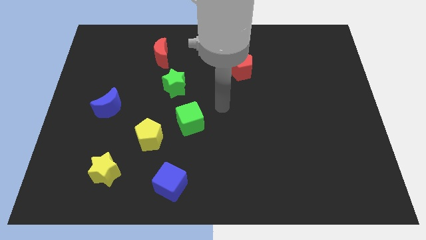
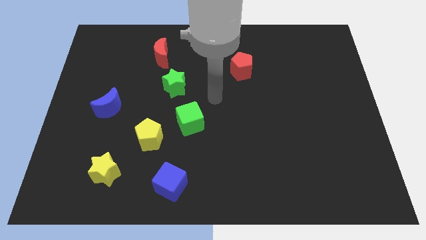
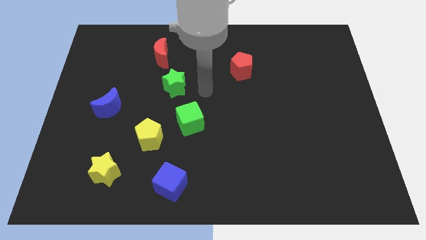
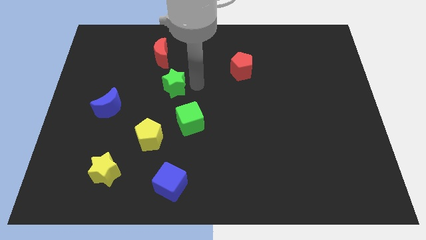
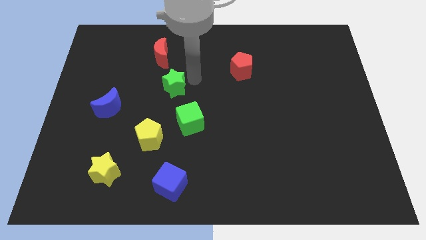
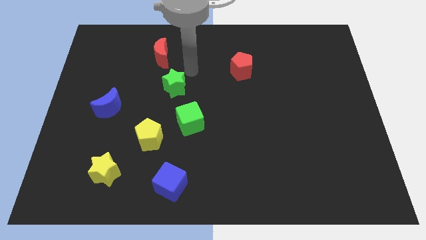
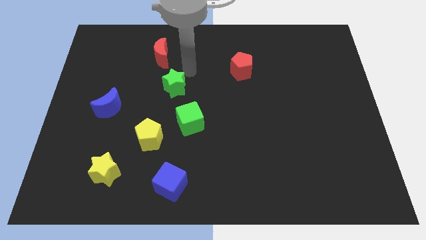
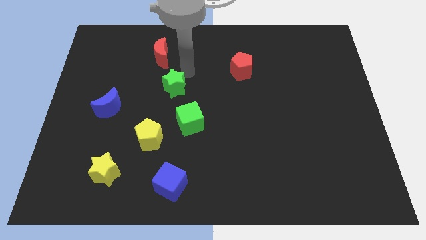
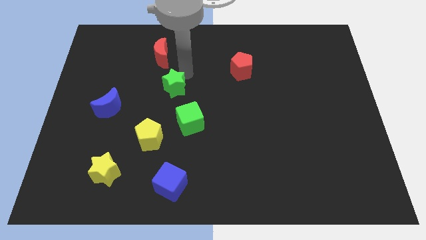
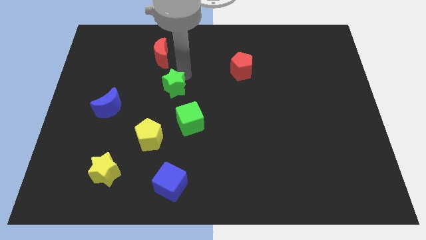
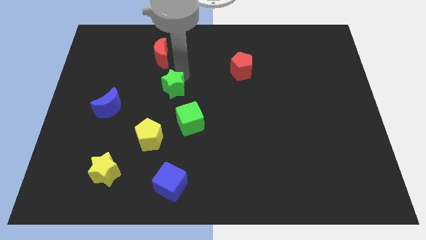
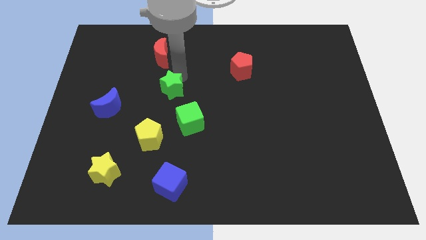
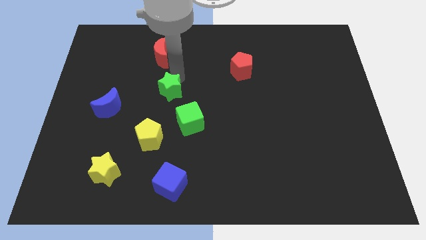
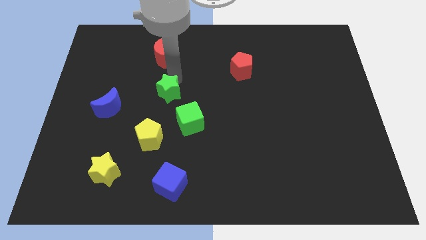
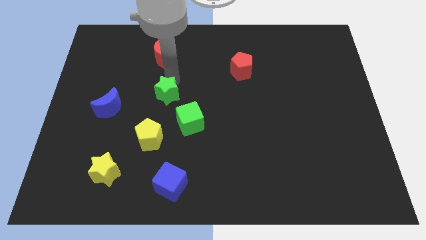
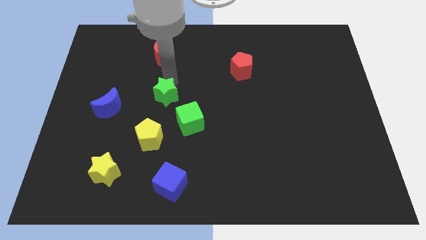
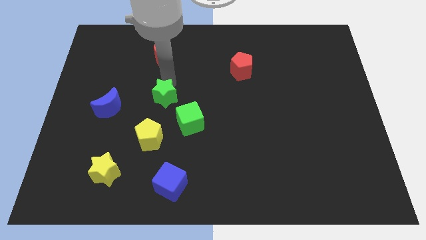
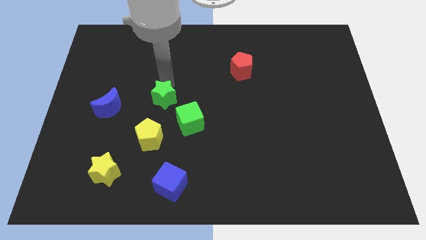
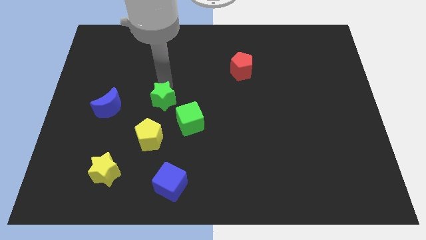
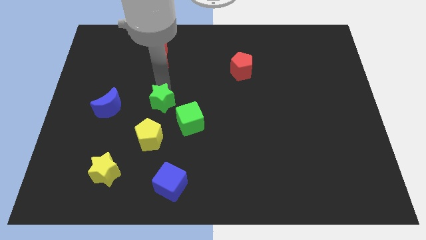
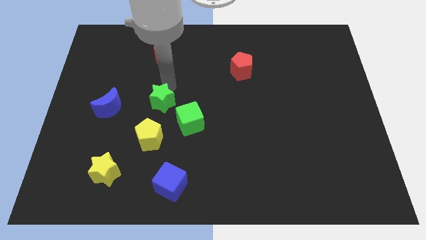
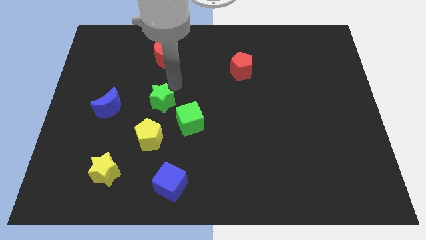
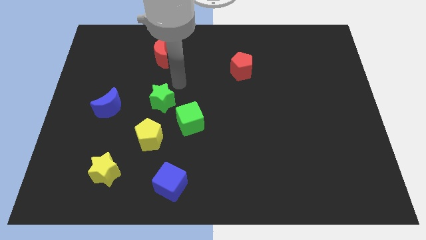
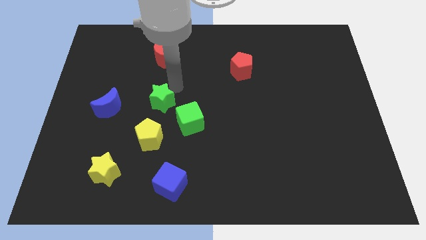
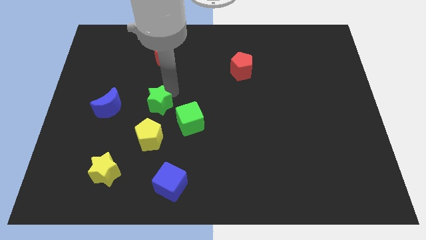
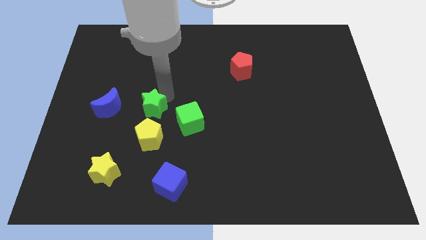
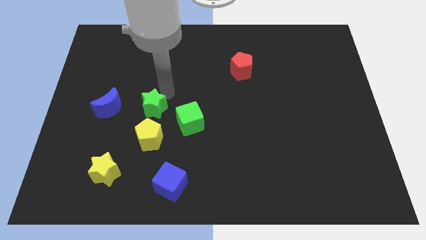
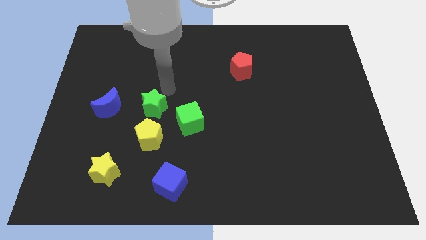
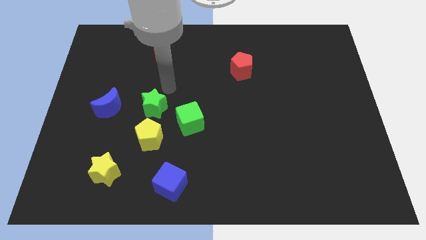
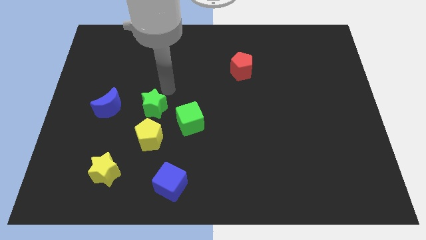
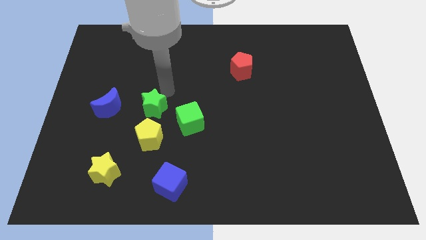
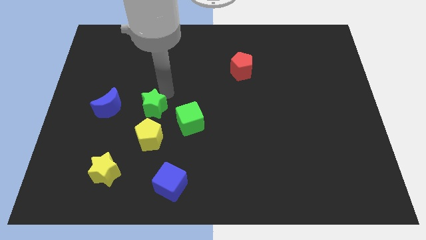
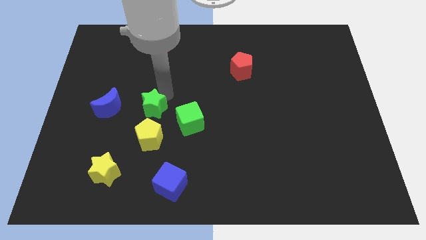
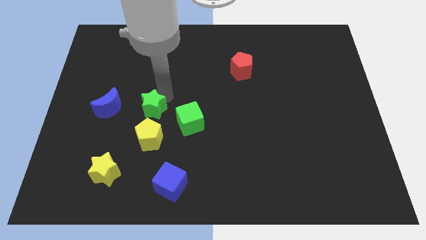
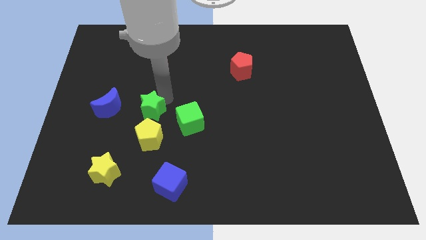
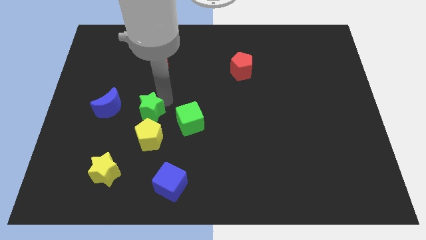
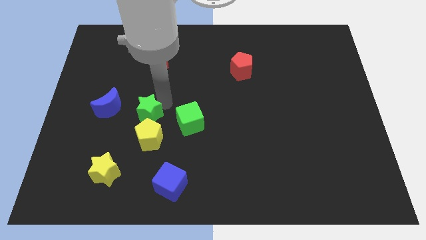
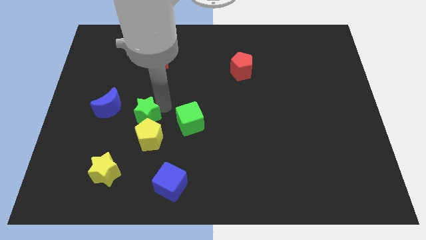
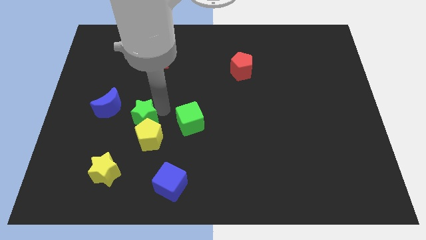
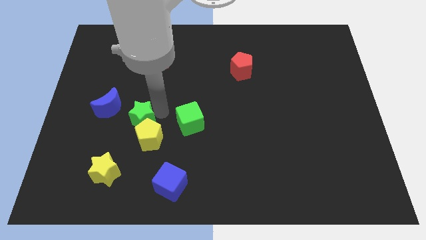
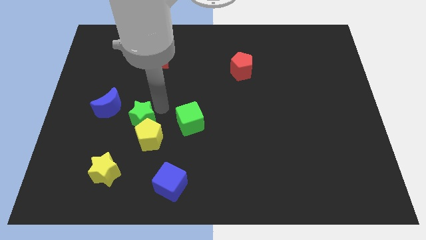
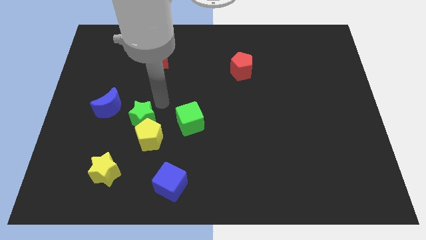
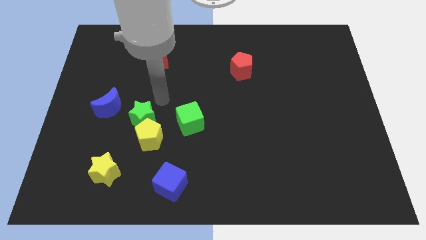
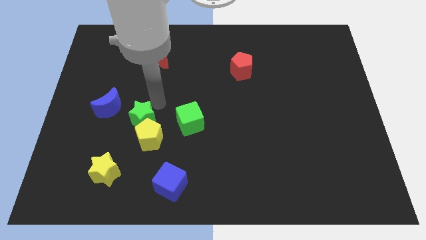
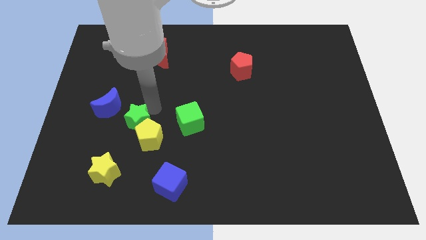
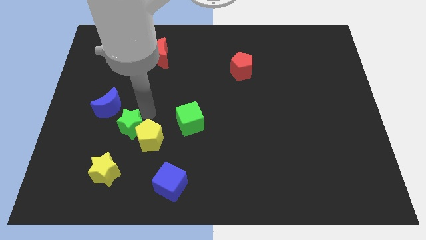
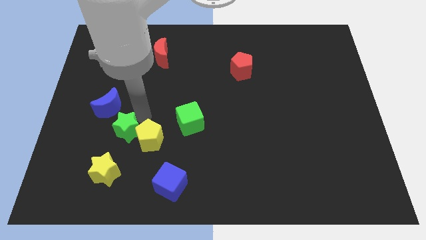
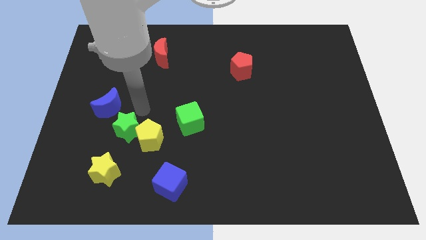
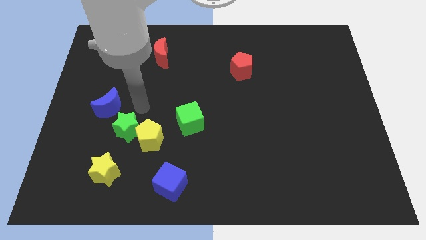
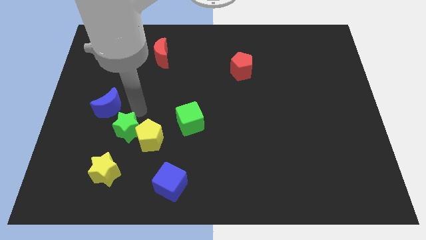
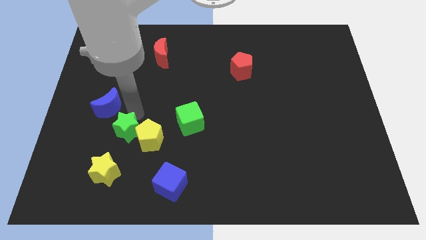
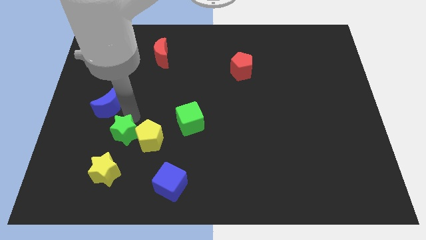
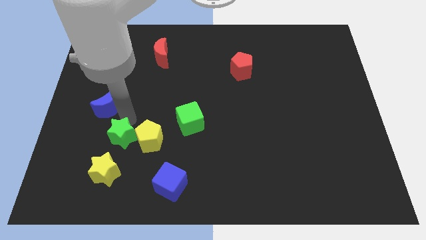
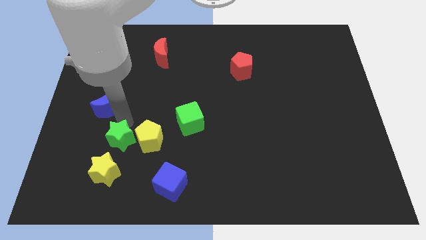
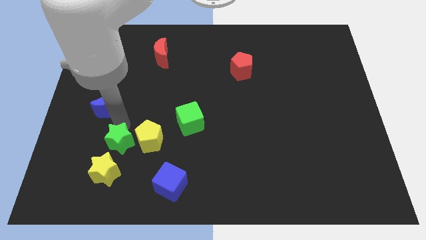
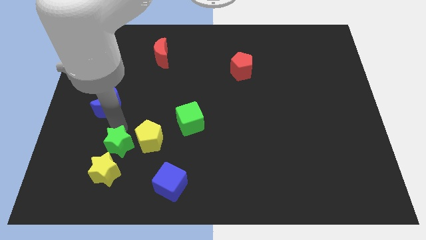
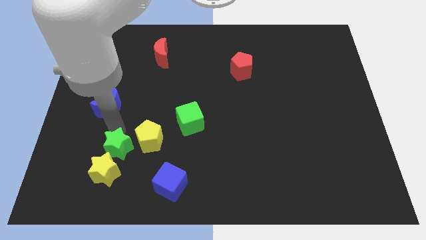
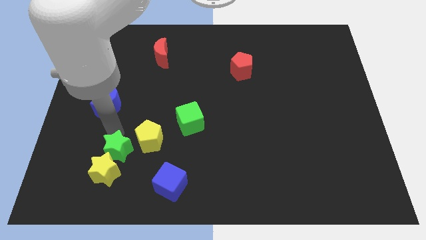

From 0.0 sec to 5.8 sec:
slide the green star close to the yellow star

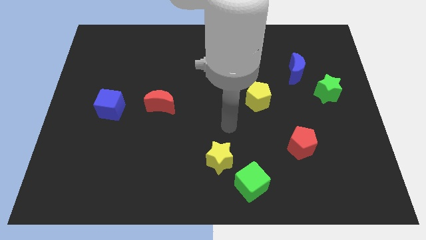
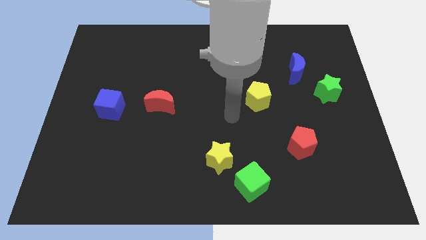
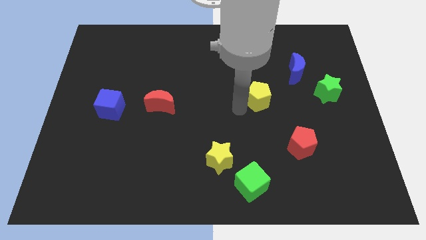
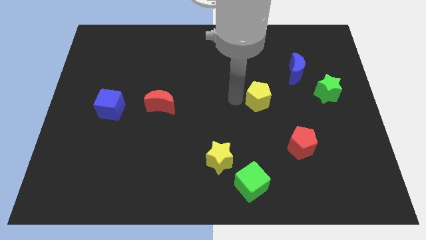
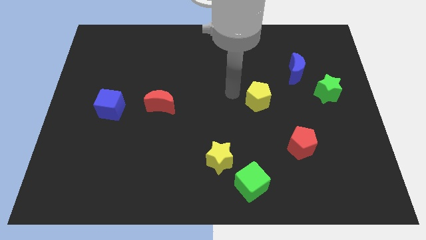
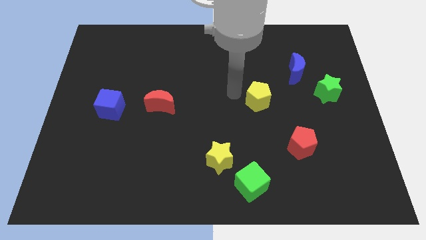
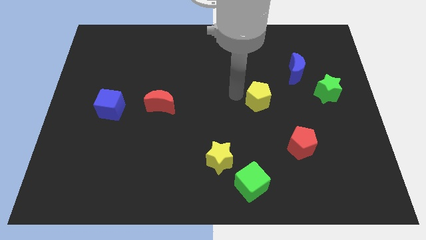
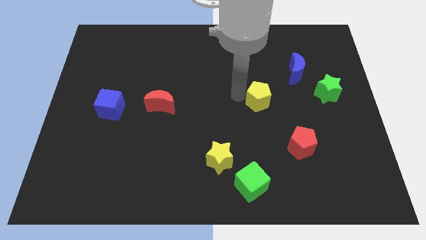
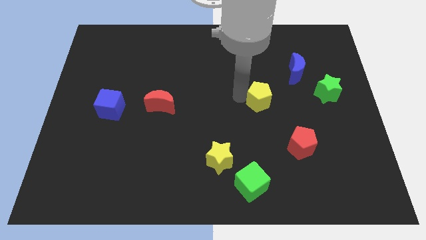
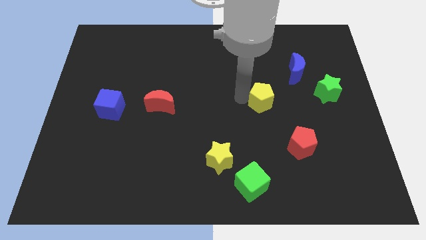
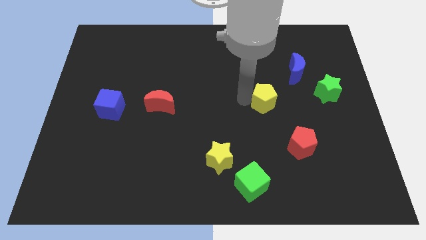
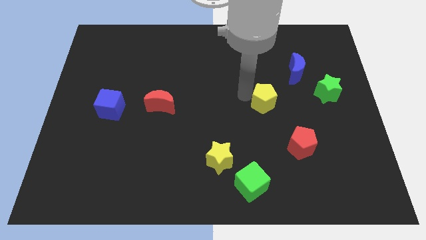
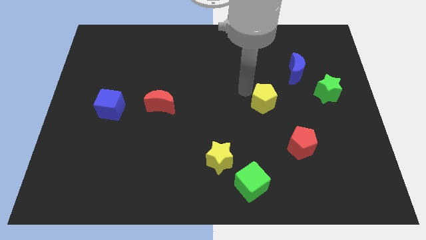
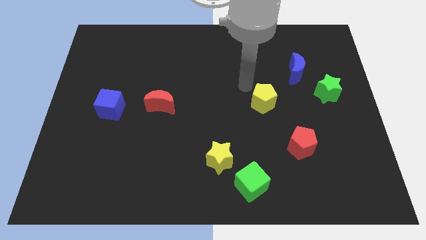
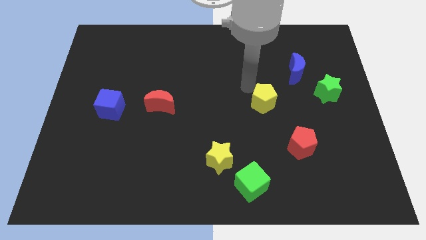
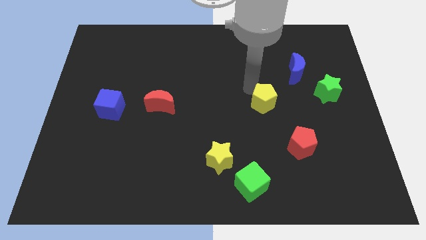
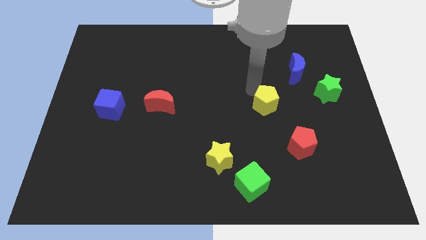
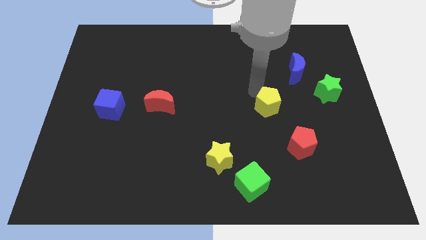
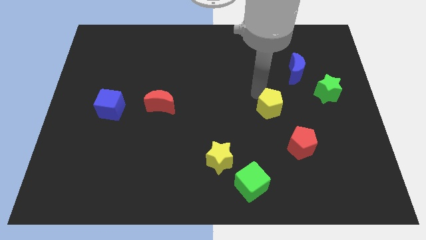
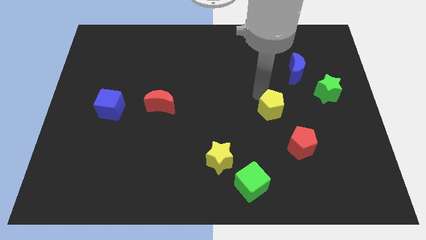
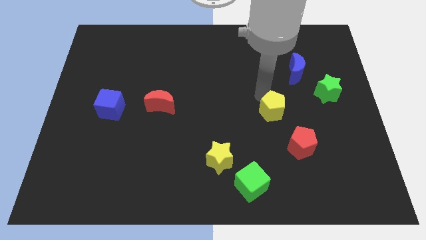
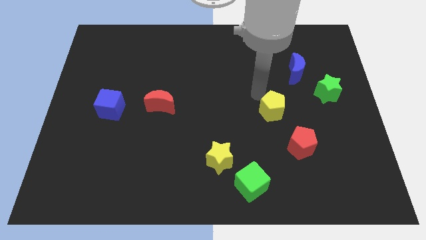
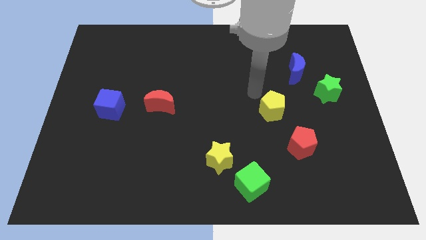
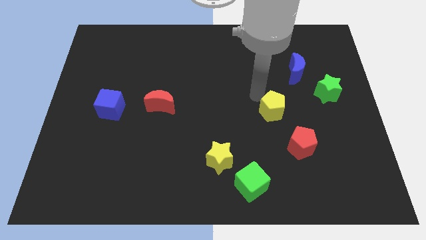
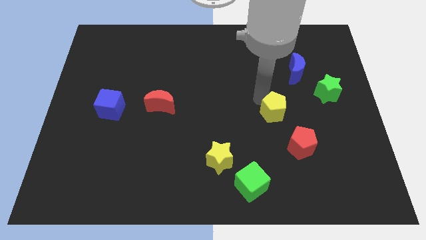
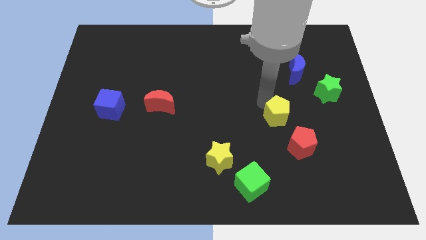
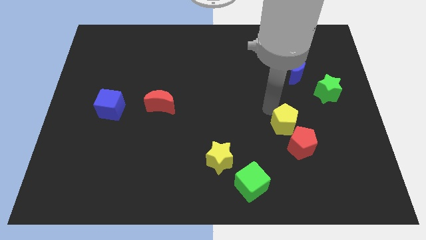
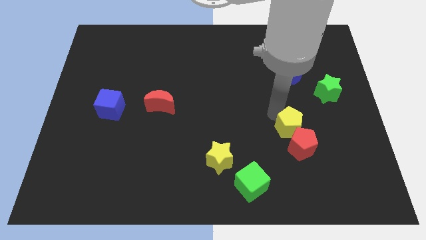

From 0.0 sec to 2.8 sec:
put the yellow pentagon to the red pentagon
